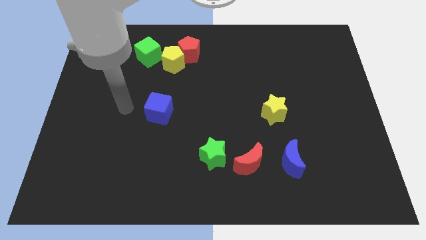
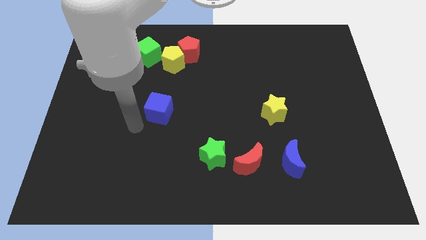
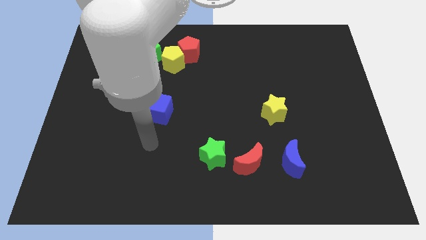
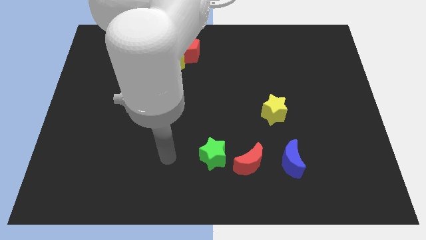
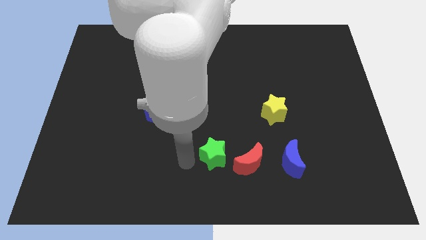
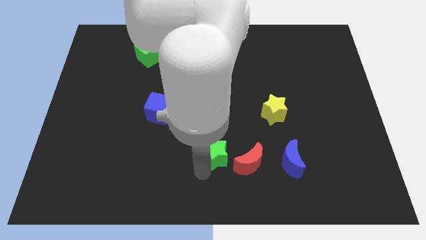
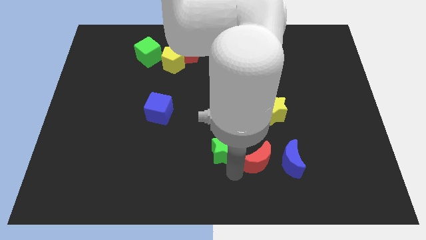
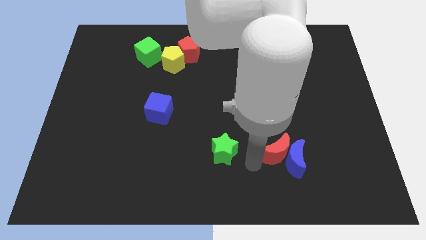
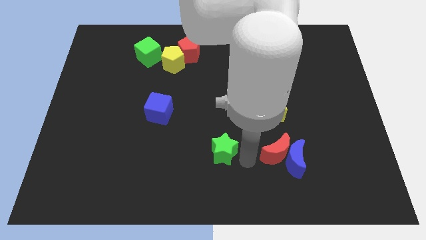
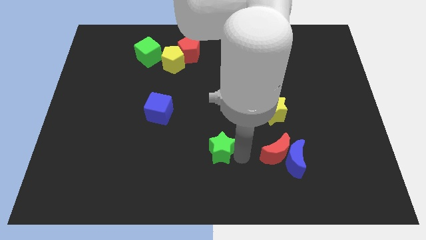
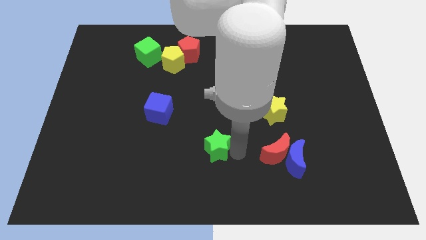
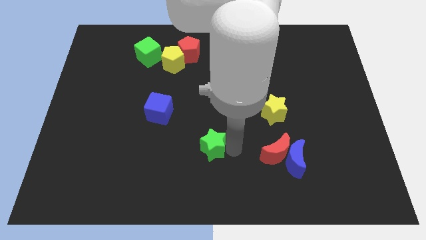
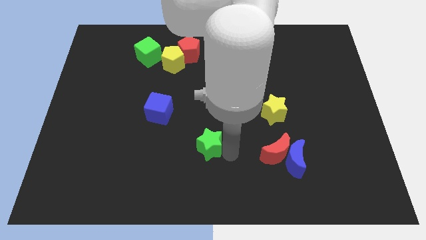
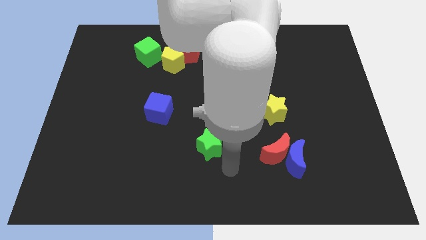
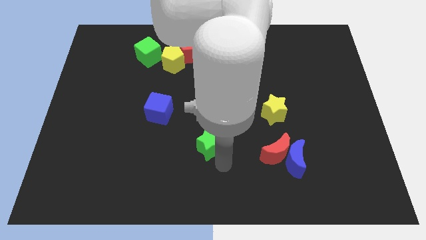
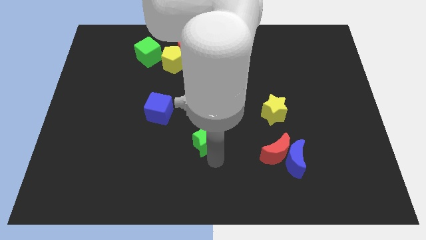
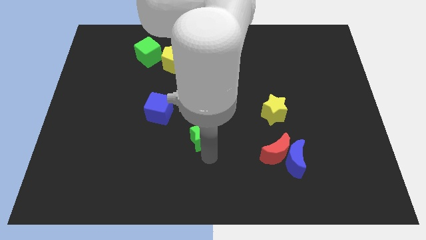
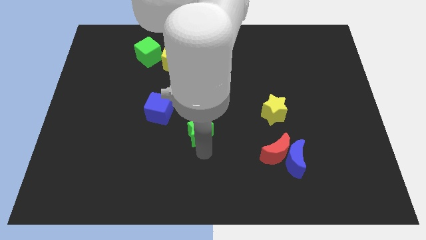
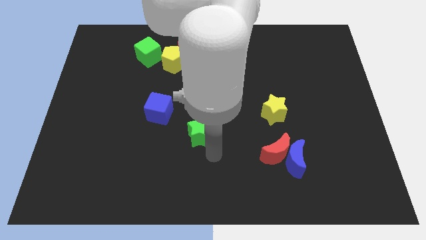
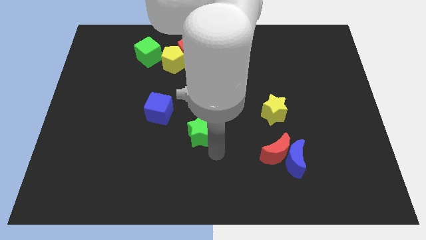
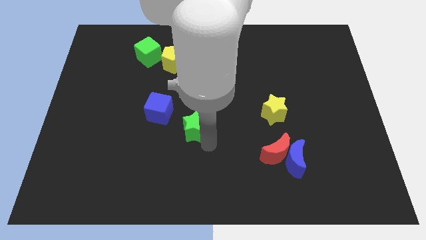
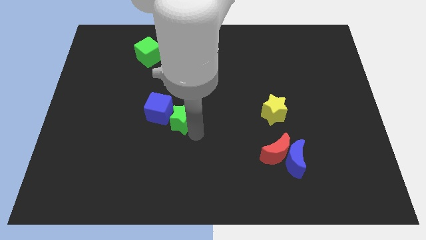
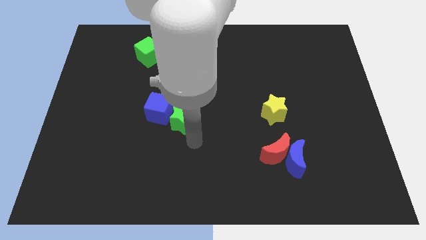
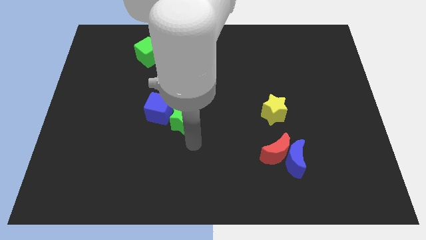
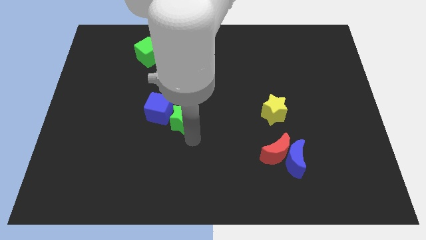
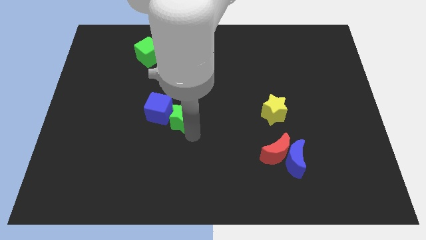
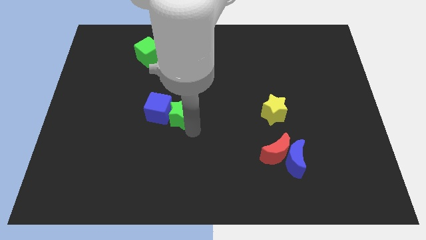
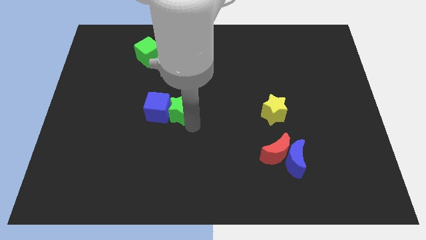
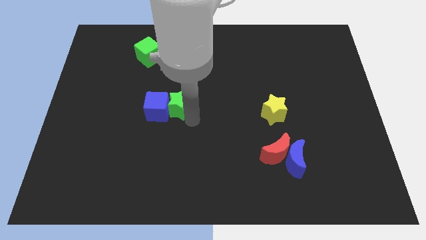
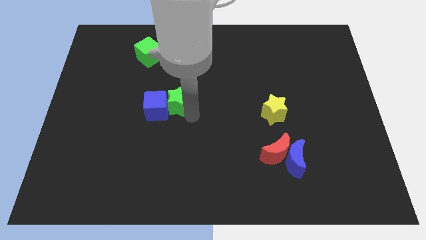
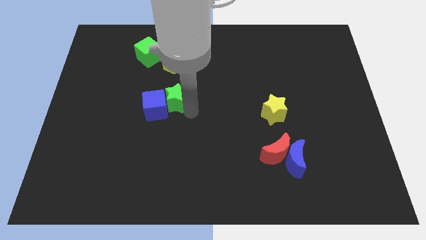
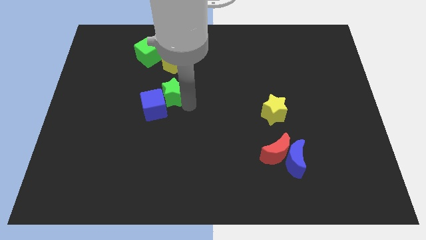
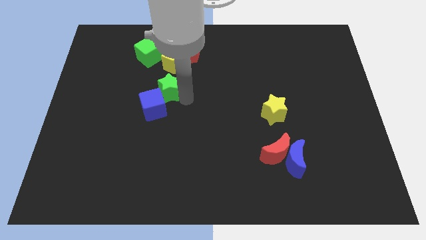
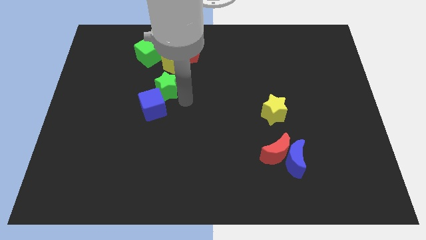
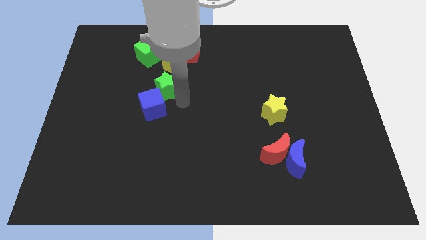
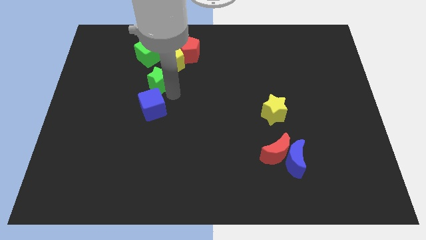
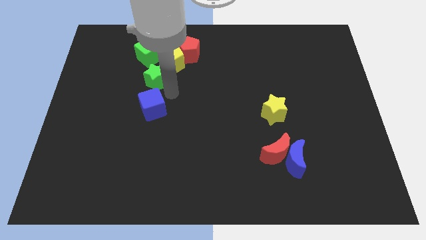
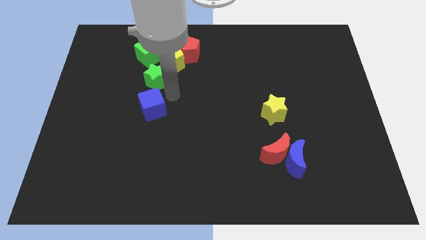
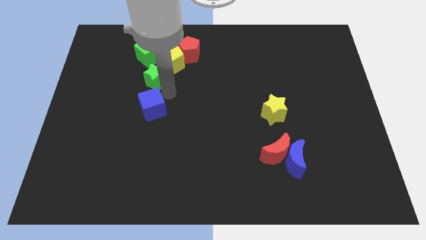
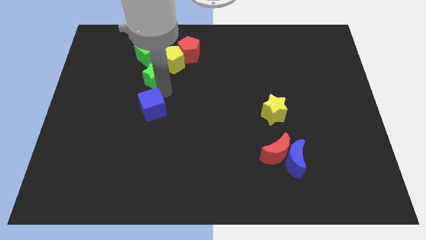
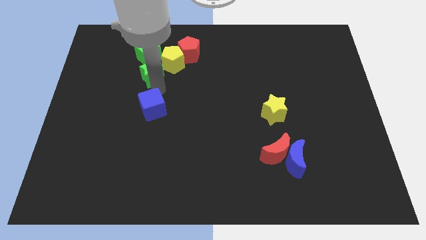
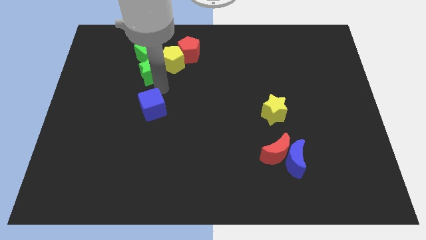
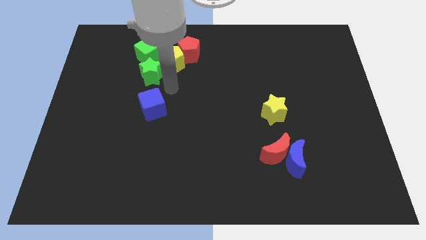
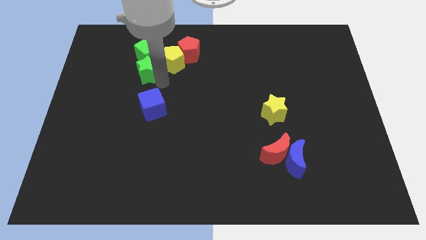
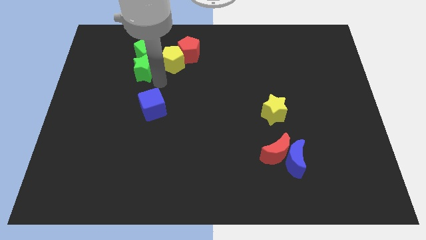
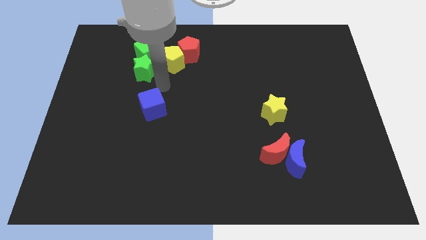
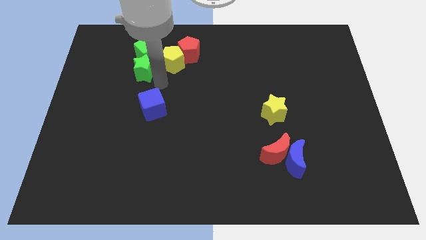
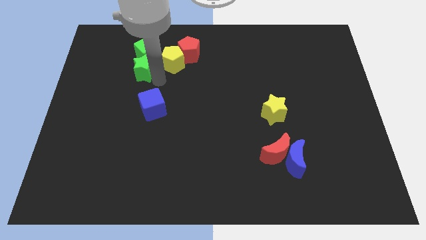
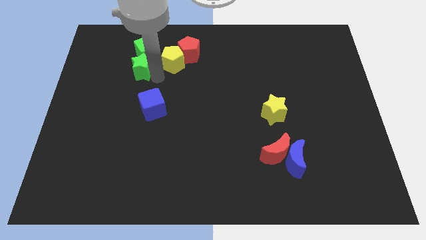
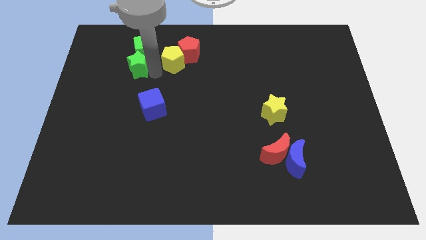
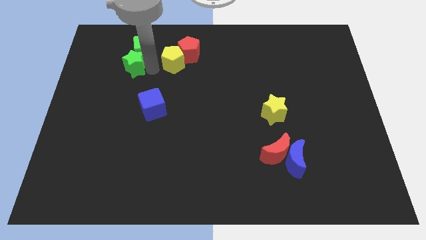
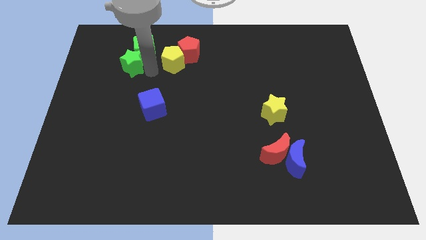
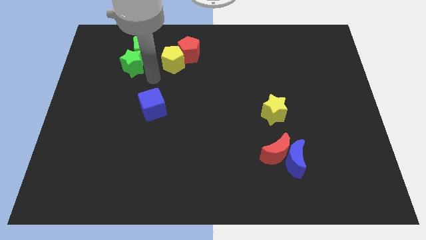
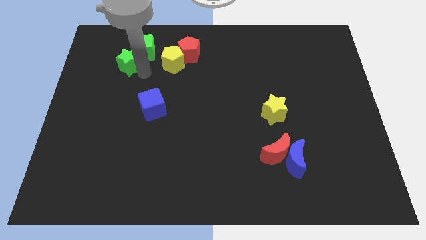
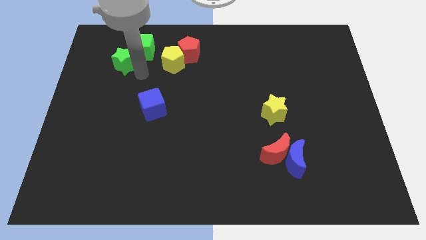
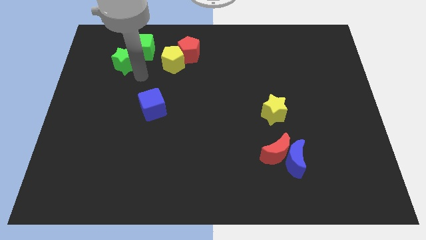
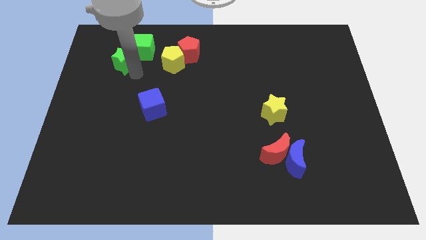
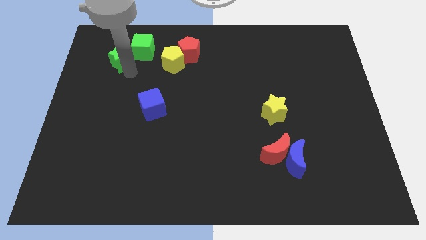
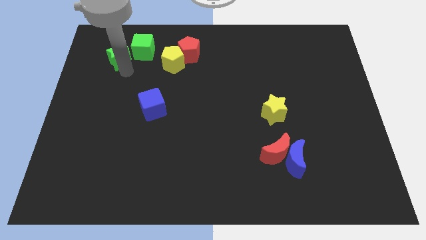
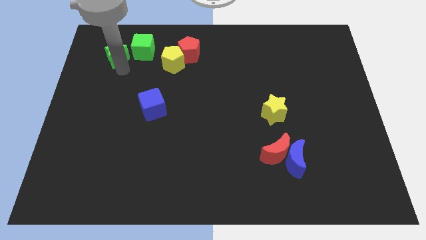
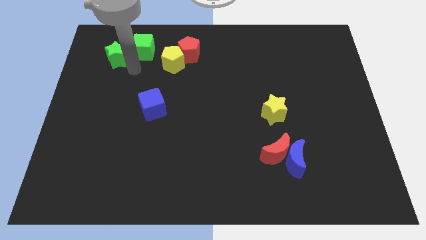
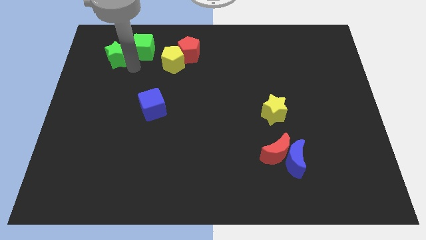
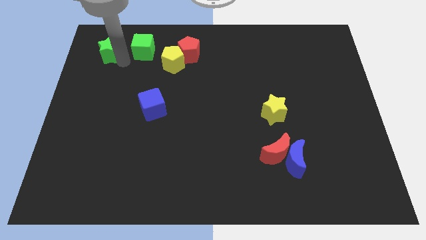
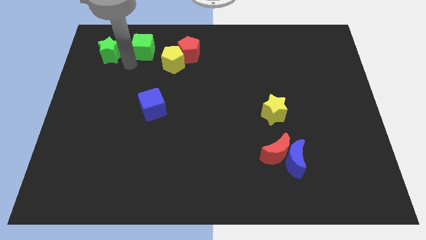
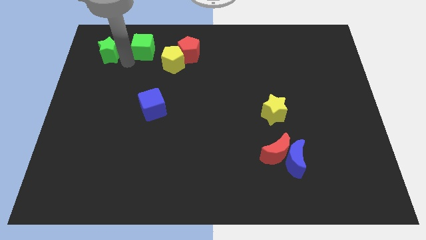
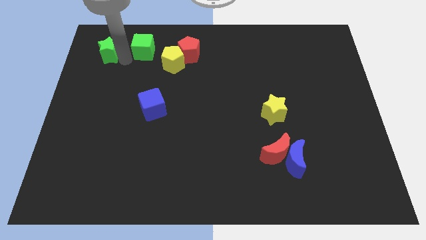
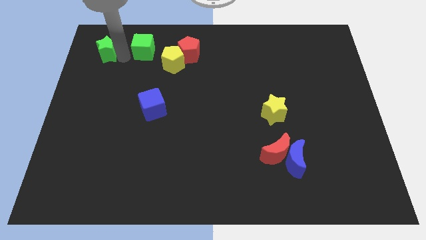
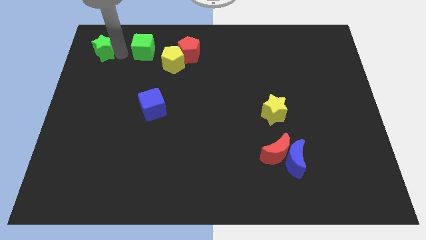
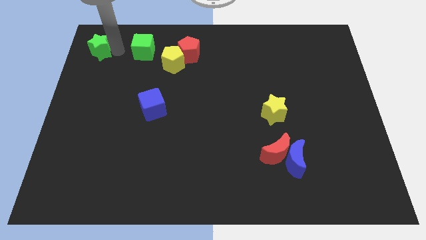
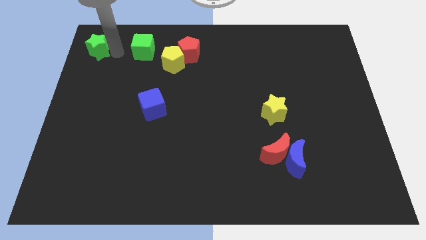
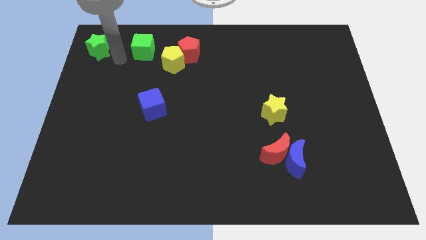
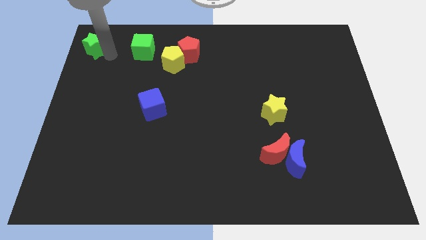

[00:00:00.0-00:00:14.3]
slide the green star to the top left
